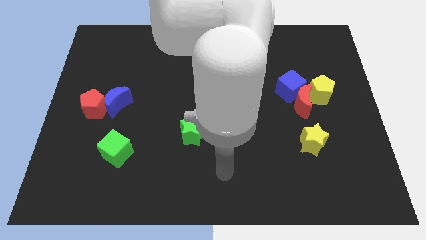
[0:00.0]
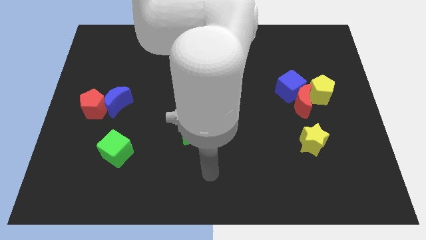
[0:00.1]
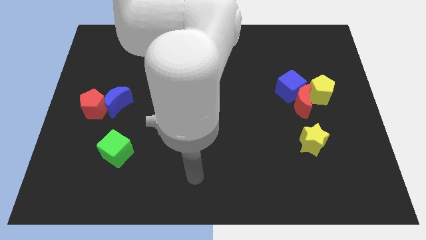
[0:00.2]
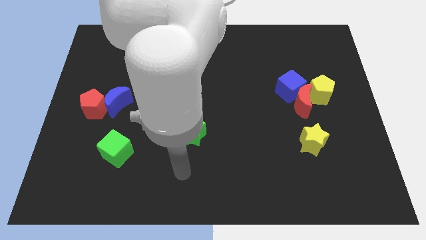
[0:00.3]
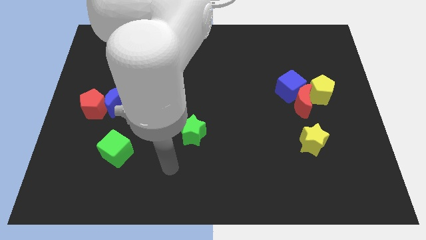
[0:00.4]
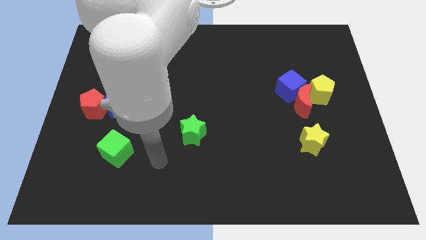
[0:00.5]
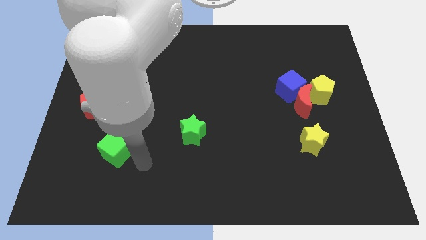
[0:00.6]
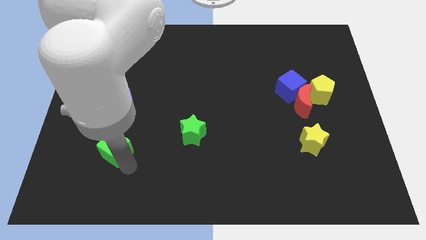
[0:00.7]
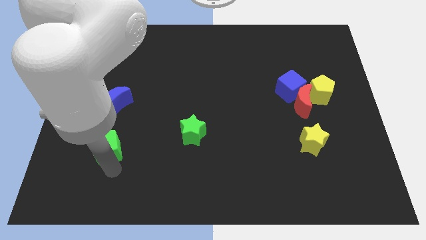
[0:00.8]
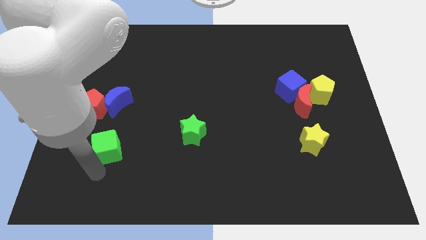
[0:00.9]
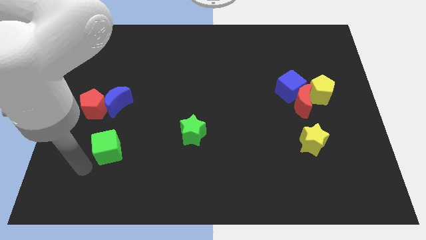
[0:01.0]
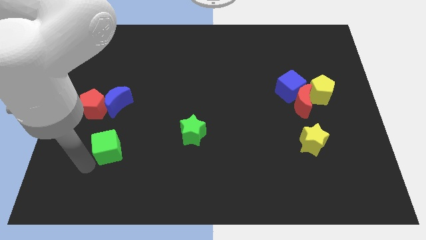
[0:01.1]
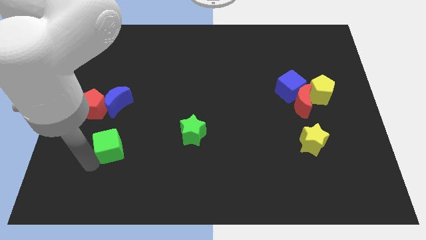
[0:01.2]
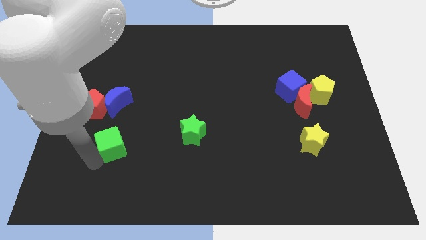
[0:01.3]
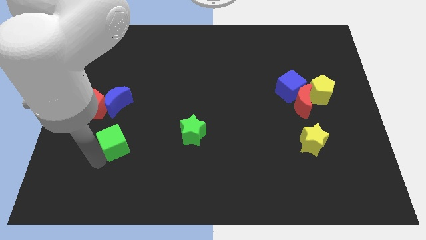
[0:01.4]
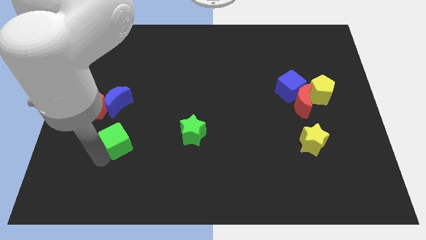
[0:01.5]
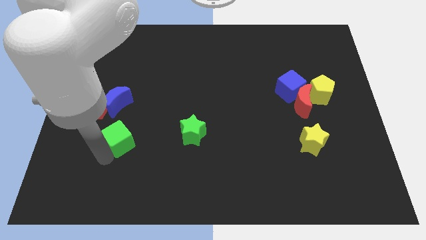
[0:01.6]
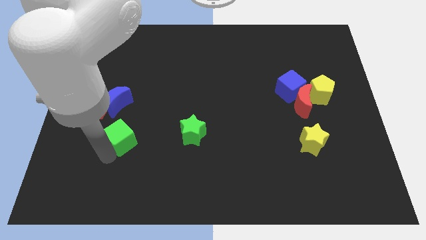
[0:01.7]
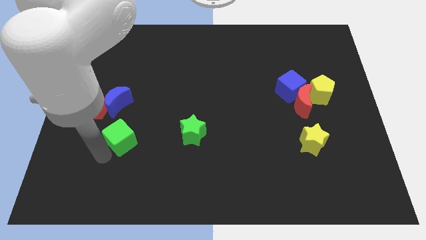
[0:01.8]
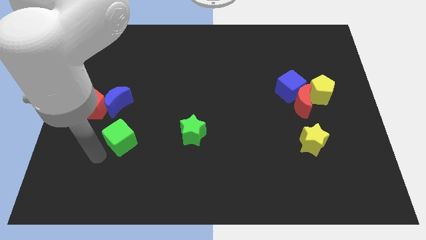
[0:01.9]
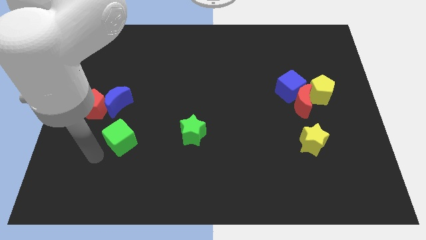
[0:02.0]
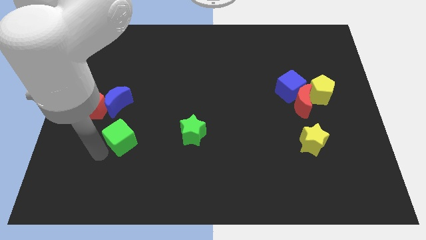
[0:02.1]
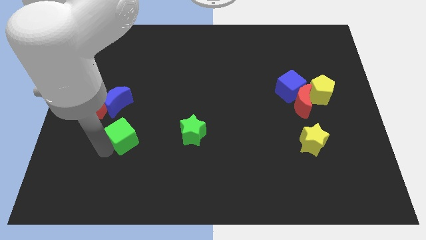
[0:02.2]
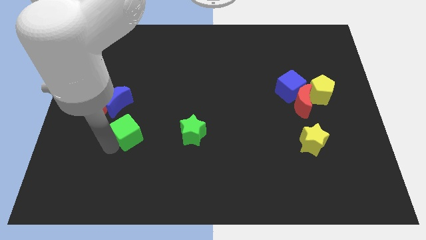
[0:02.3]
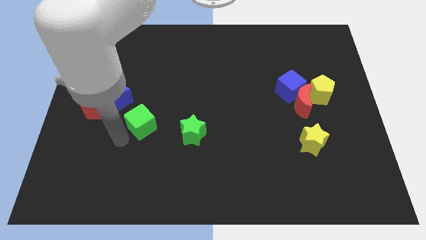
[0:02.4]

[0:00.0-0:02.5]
slide the green cube diagonally up and right slightly

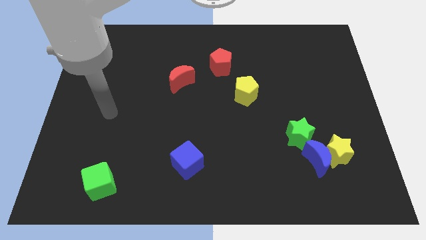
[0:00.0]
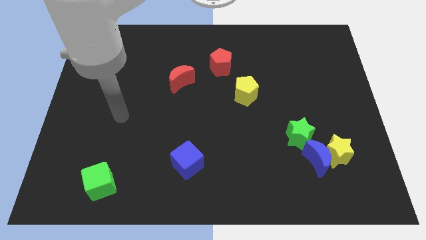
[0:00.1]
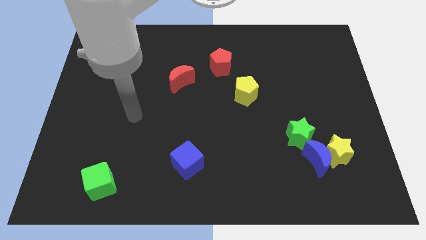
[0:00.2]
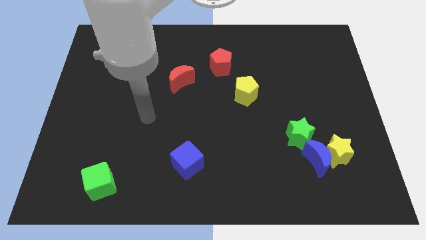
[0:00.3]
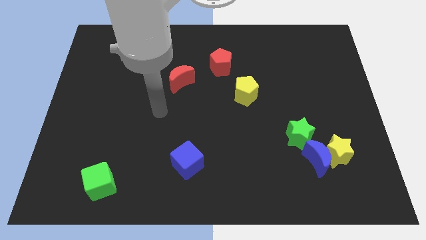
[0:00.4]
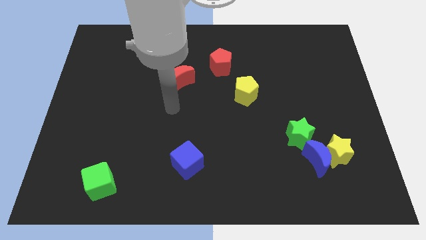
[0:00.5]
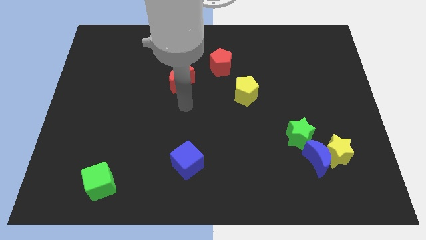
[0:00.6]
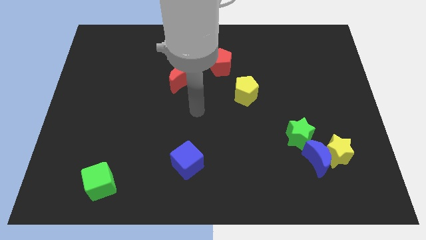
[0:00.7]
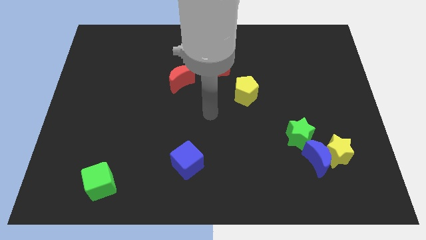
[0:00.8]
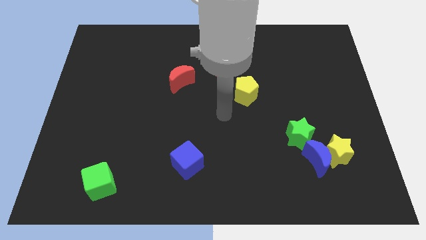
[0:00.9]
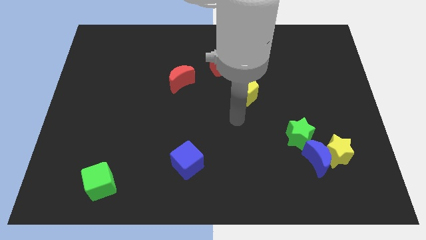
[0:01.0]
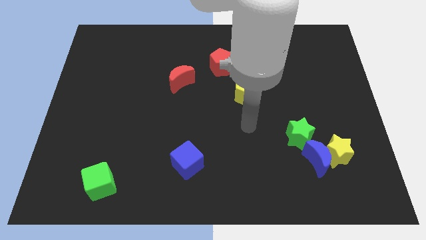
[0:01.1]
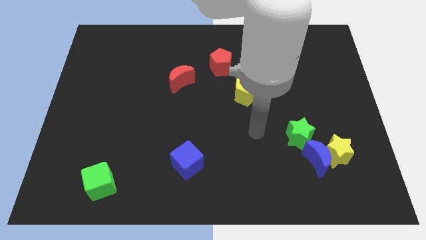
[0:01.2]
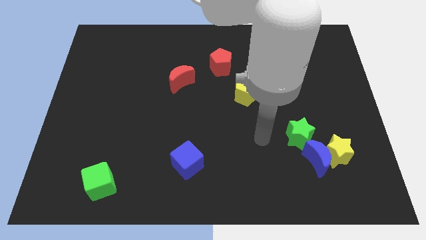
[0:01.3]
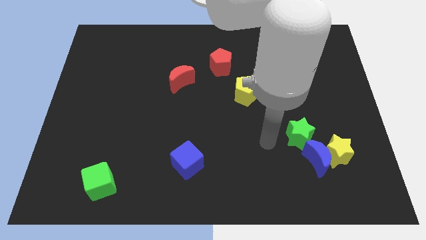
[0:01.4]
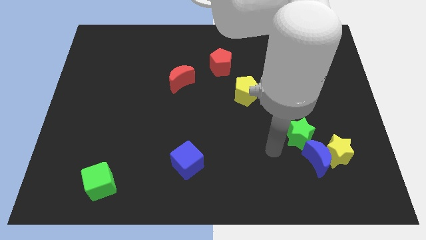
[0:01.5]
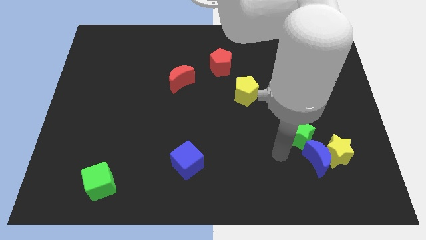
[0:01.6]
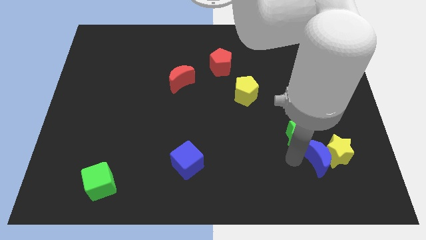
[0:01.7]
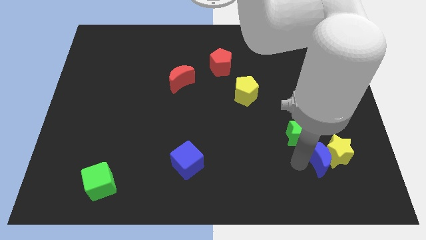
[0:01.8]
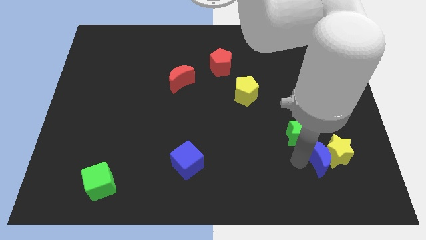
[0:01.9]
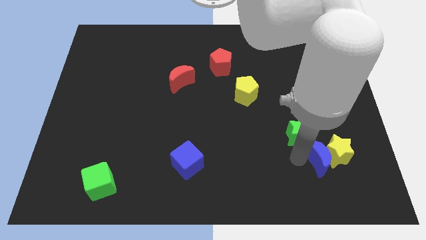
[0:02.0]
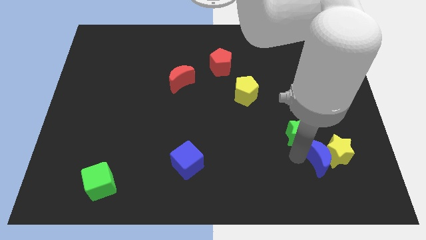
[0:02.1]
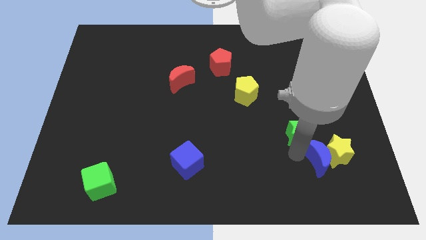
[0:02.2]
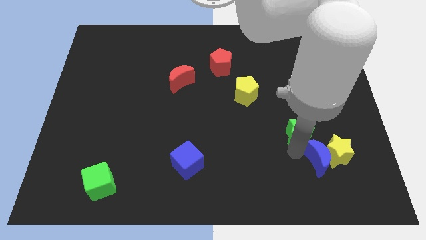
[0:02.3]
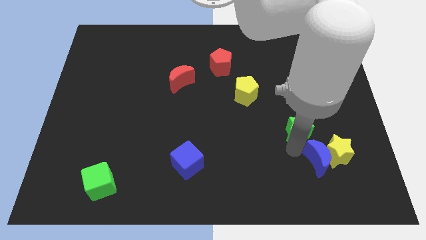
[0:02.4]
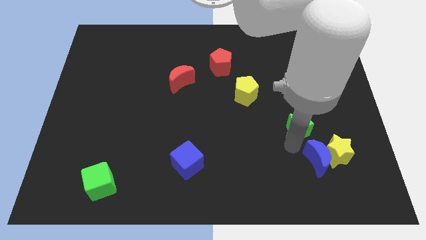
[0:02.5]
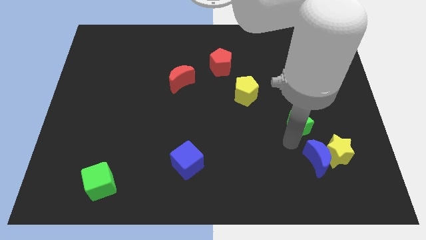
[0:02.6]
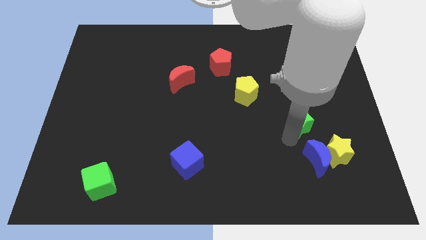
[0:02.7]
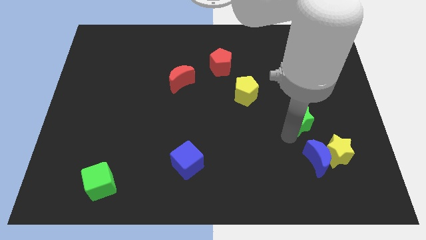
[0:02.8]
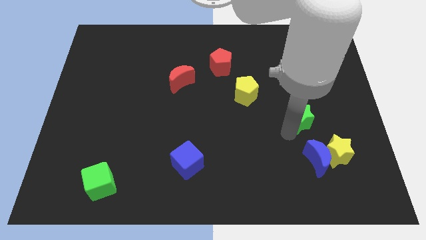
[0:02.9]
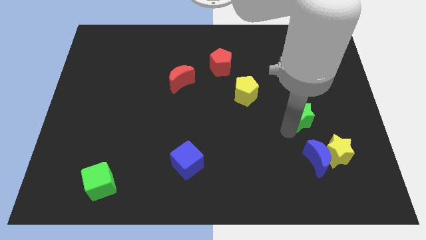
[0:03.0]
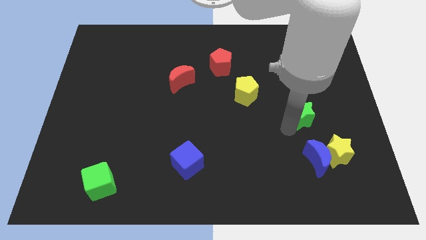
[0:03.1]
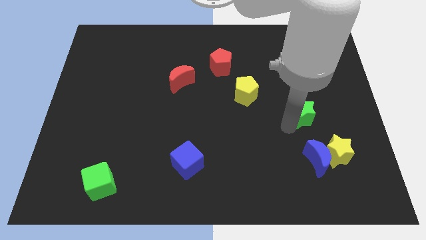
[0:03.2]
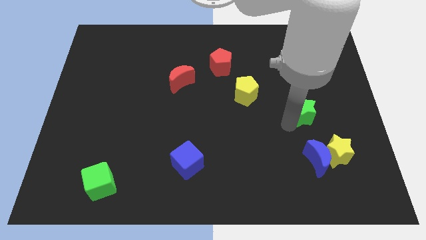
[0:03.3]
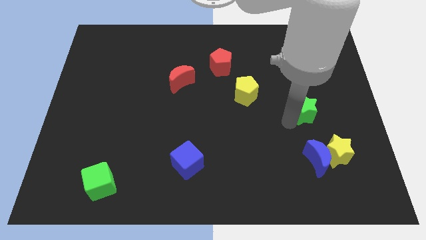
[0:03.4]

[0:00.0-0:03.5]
slide the green star up somewhat

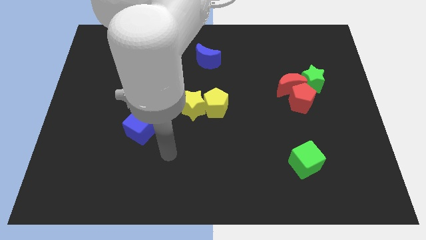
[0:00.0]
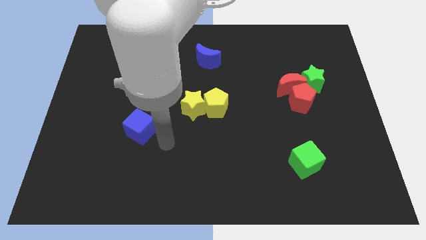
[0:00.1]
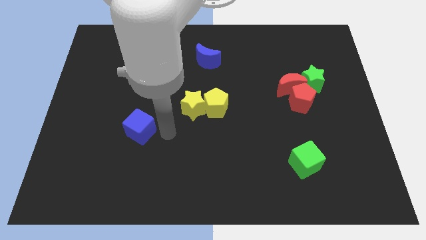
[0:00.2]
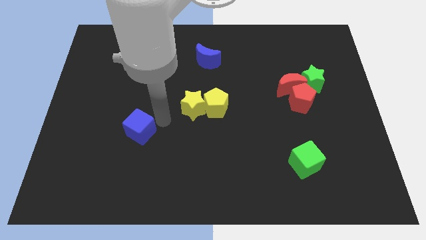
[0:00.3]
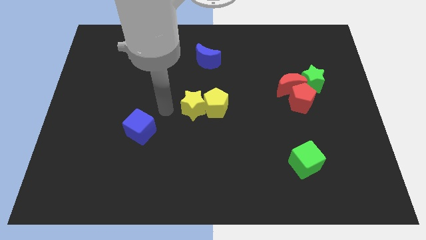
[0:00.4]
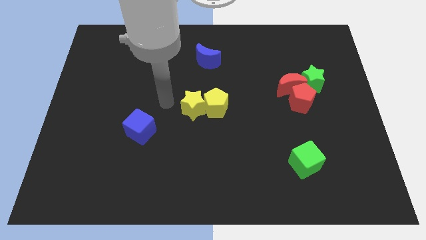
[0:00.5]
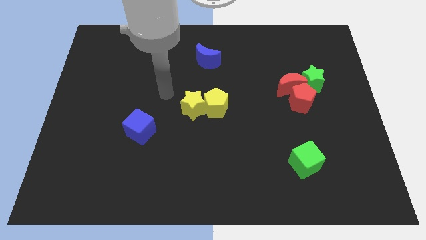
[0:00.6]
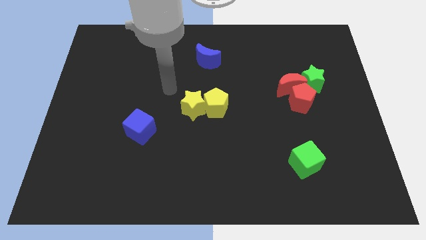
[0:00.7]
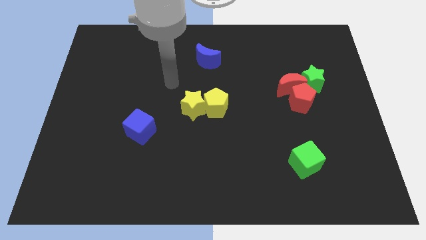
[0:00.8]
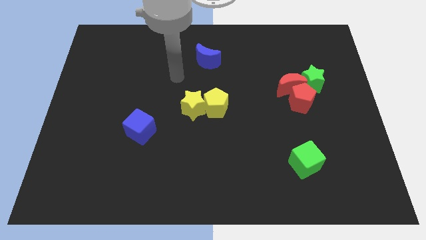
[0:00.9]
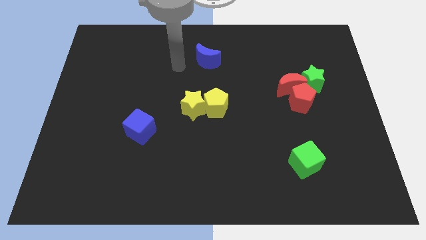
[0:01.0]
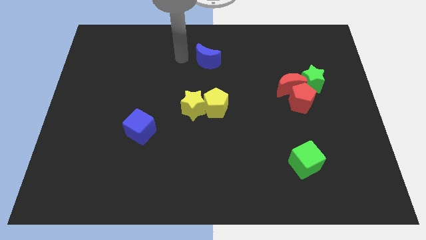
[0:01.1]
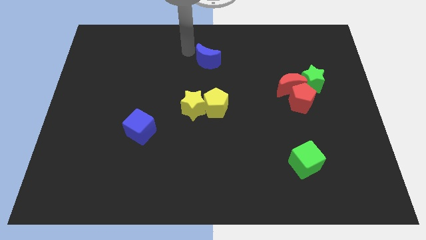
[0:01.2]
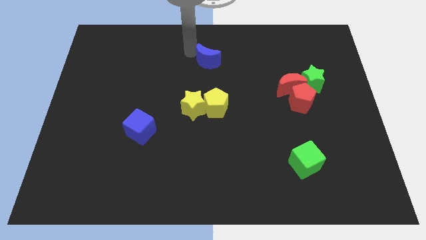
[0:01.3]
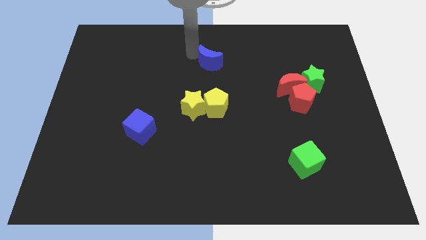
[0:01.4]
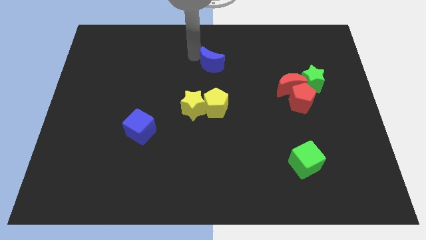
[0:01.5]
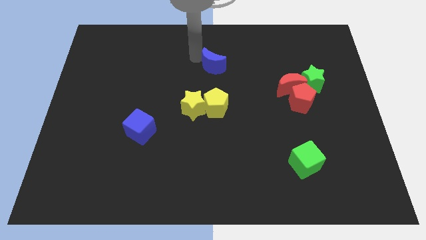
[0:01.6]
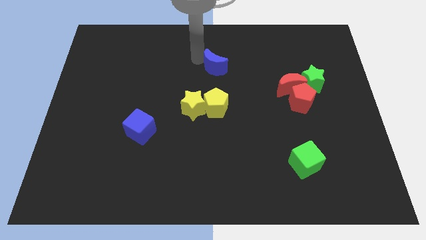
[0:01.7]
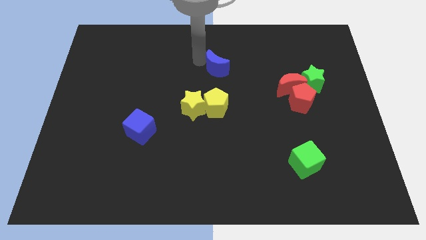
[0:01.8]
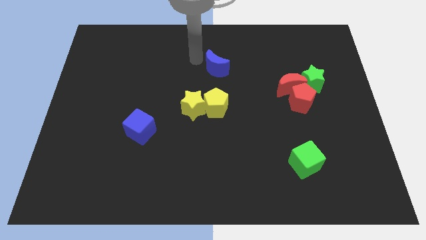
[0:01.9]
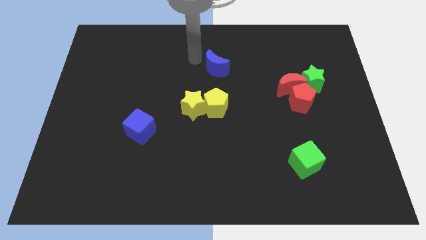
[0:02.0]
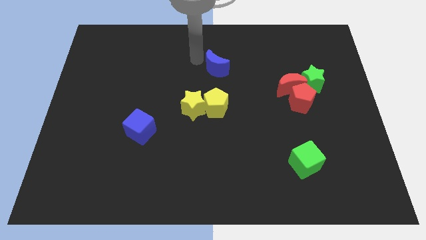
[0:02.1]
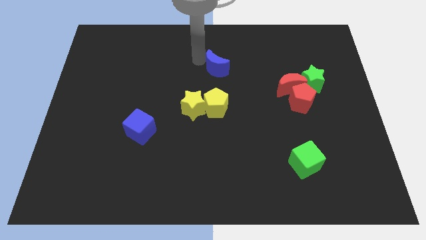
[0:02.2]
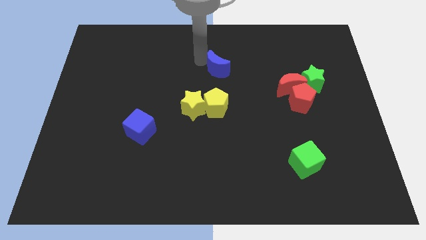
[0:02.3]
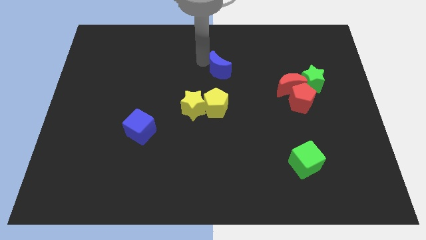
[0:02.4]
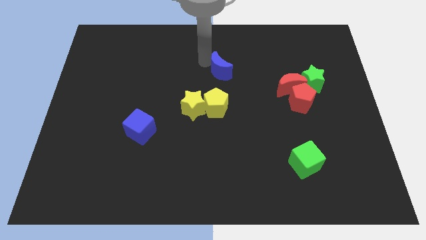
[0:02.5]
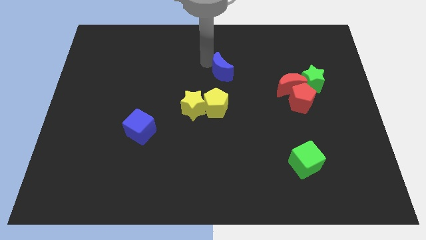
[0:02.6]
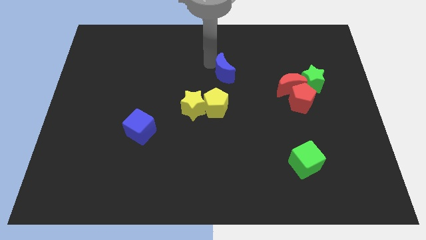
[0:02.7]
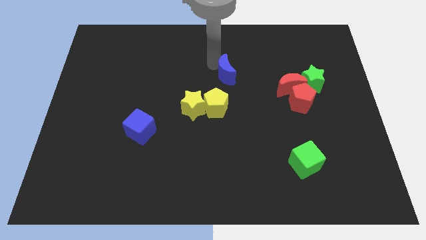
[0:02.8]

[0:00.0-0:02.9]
slide the blue moon diagonally down and right a little bit
